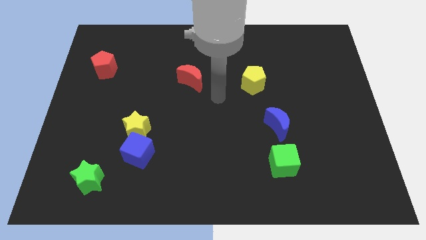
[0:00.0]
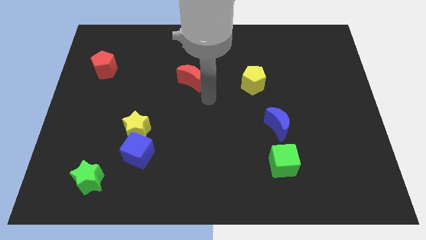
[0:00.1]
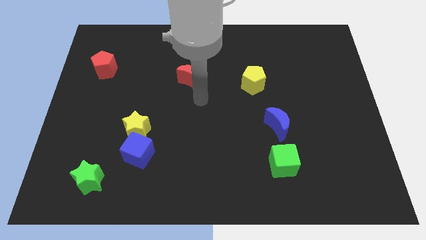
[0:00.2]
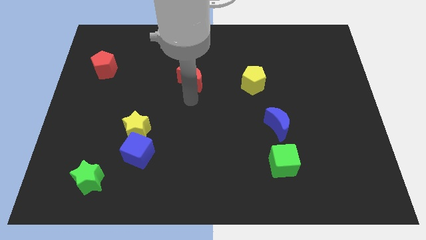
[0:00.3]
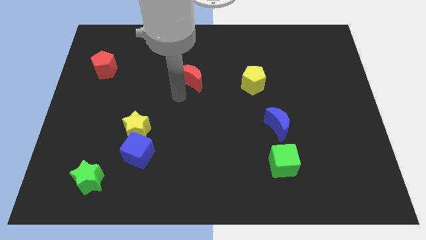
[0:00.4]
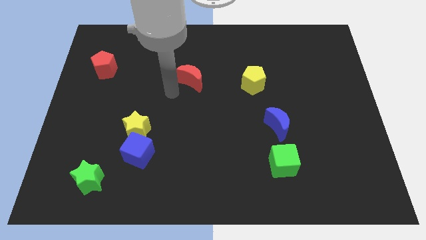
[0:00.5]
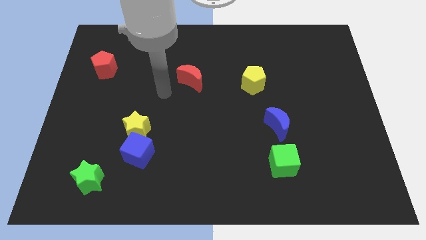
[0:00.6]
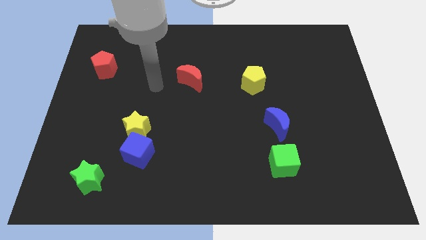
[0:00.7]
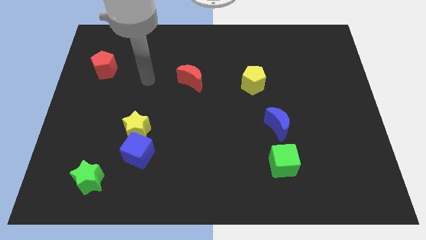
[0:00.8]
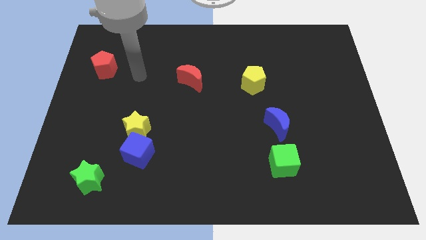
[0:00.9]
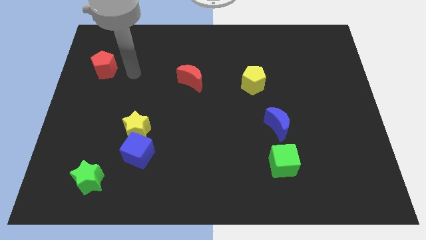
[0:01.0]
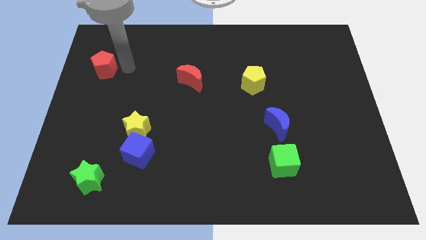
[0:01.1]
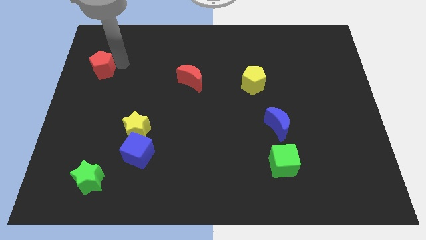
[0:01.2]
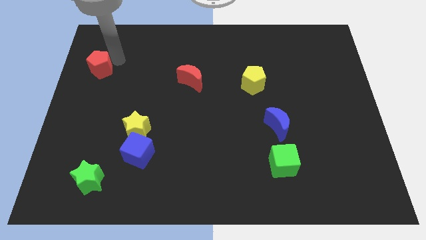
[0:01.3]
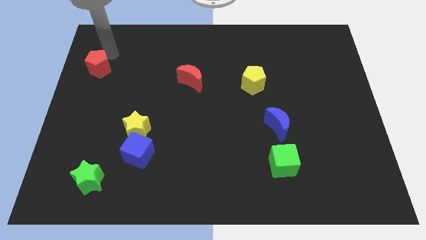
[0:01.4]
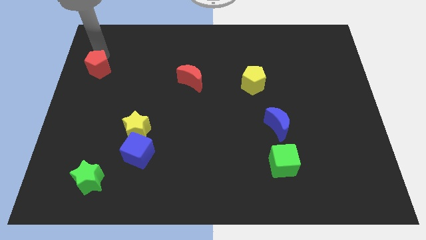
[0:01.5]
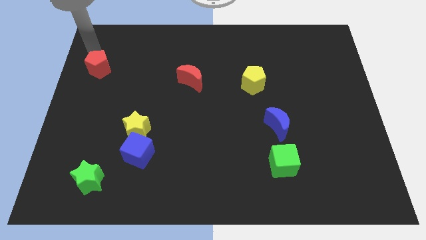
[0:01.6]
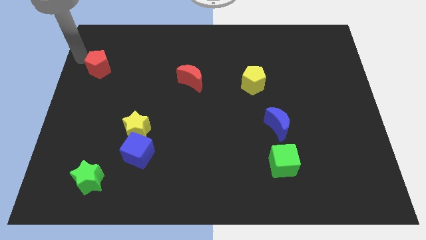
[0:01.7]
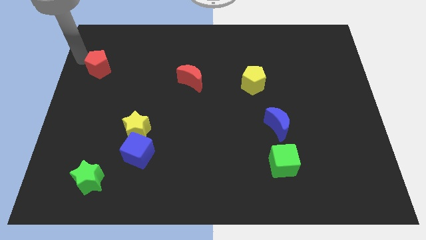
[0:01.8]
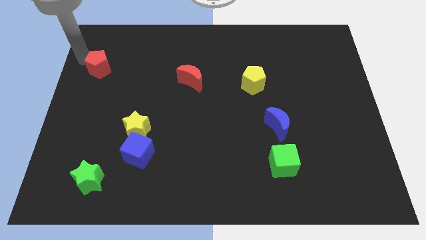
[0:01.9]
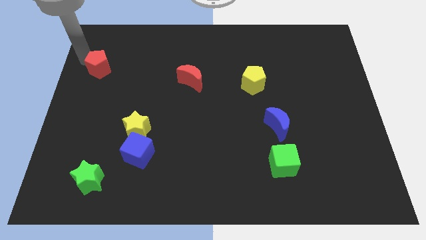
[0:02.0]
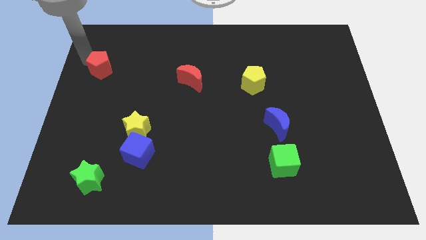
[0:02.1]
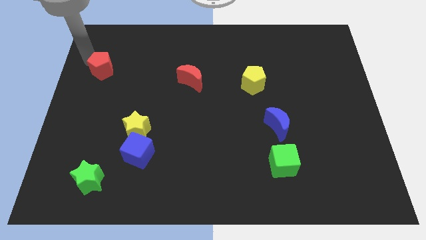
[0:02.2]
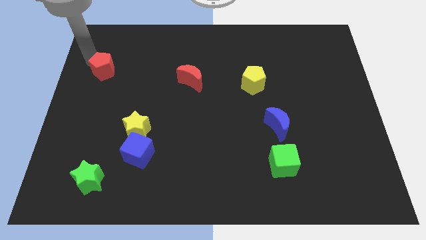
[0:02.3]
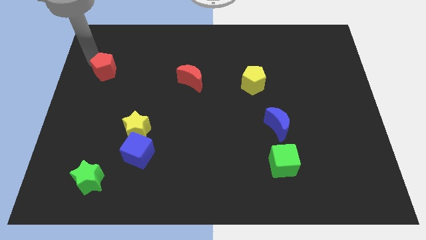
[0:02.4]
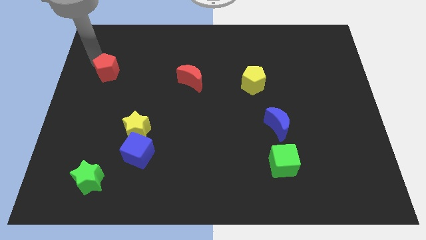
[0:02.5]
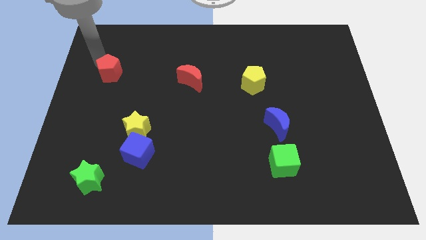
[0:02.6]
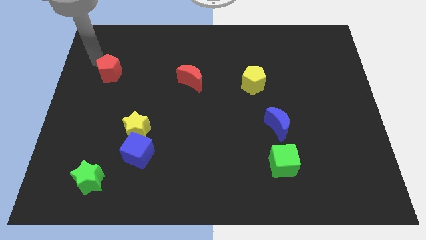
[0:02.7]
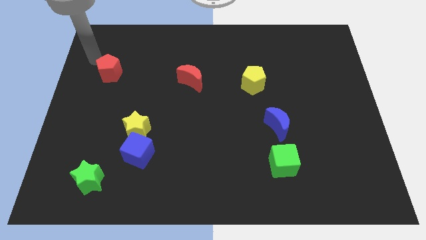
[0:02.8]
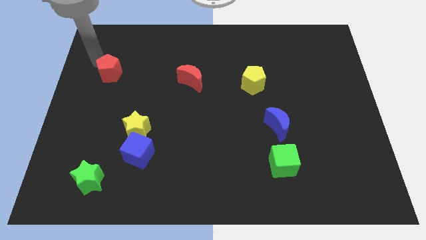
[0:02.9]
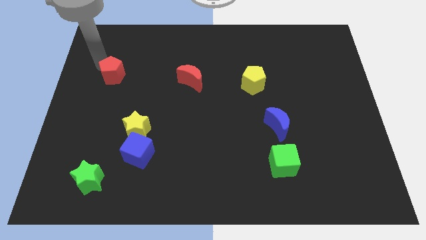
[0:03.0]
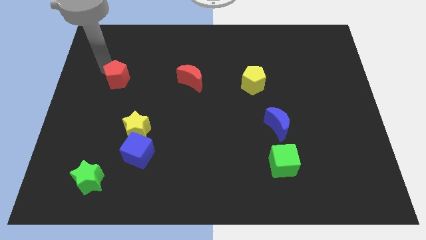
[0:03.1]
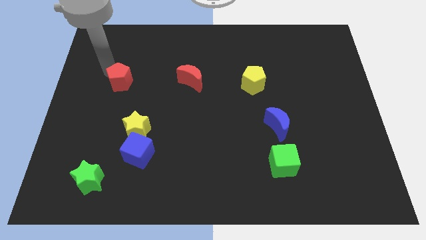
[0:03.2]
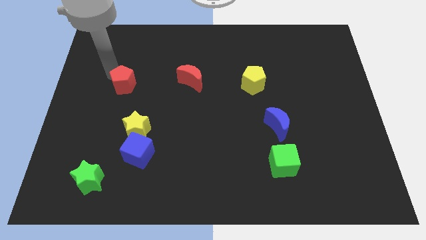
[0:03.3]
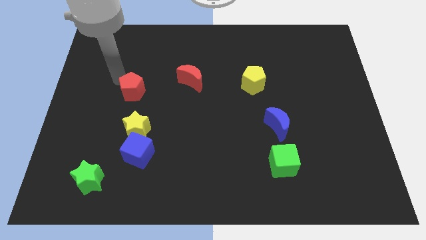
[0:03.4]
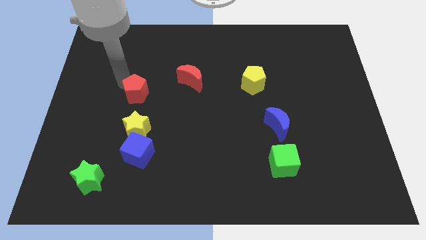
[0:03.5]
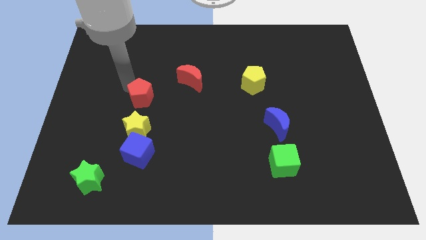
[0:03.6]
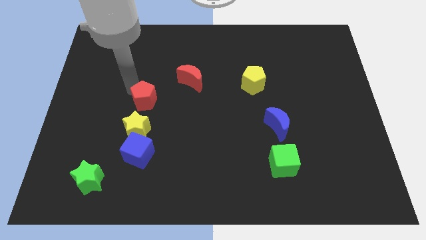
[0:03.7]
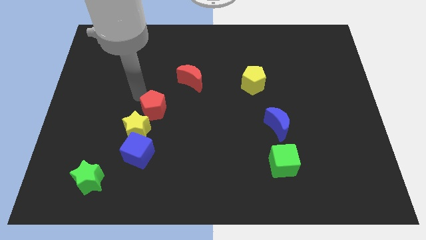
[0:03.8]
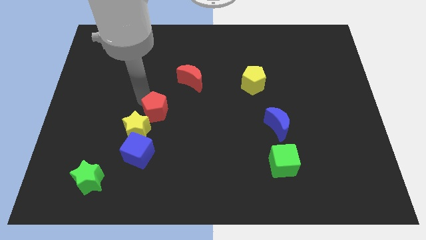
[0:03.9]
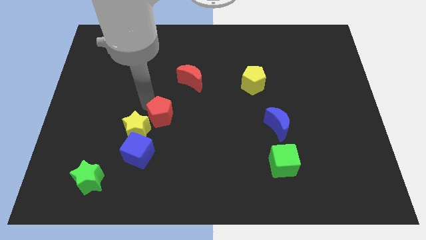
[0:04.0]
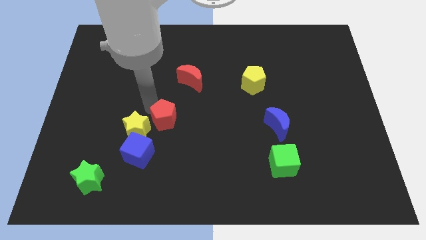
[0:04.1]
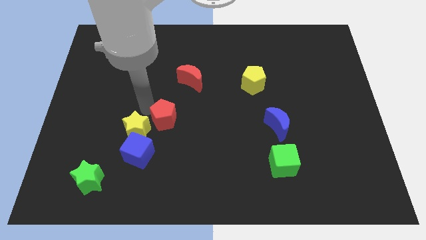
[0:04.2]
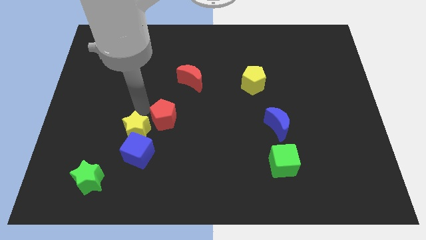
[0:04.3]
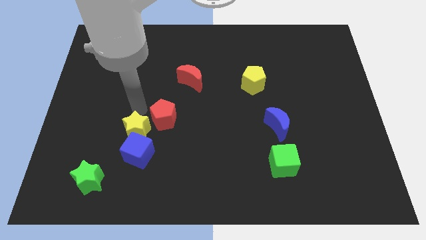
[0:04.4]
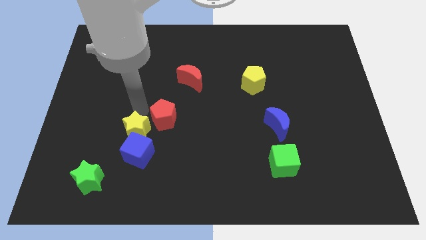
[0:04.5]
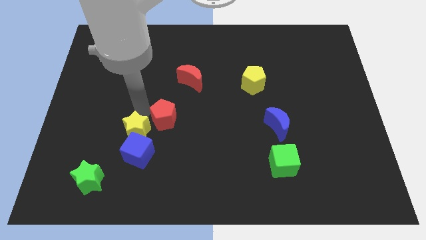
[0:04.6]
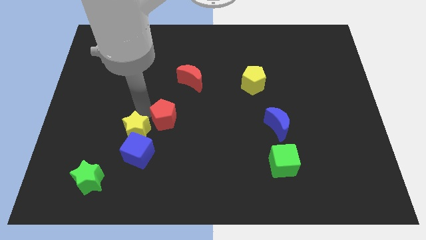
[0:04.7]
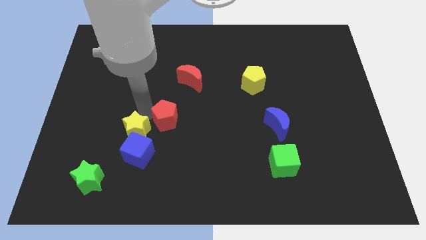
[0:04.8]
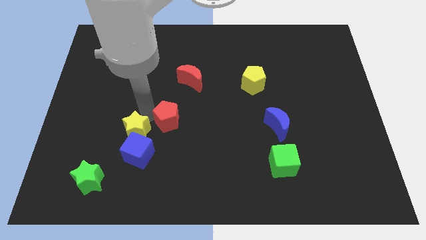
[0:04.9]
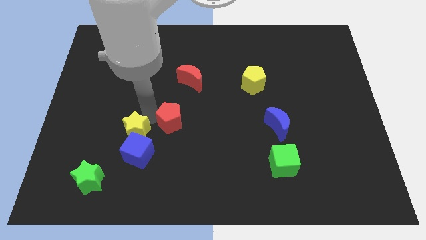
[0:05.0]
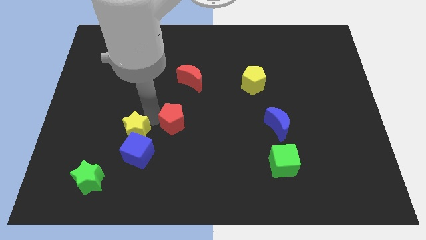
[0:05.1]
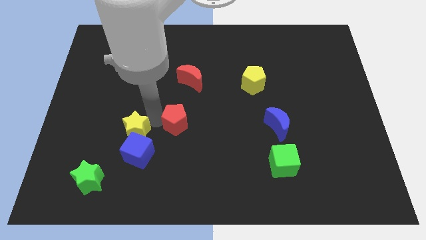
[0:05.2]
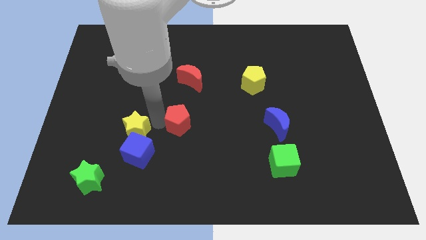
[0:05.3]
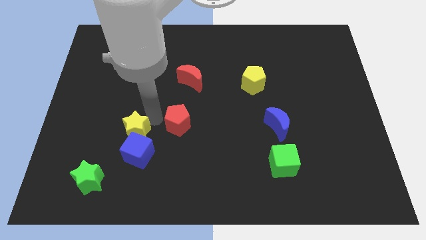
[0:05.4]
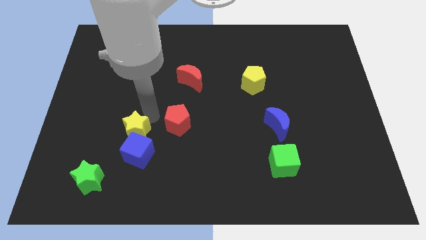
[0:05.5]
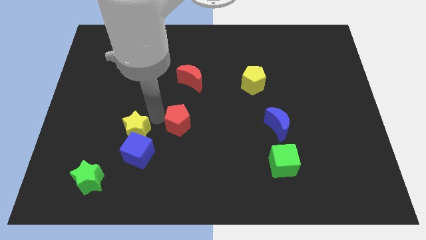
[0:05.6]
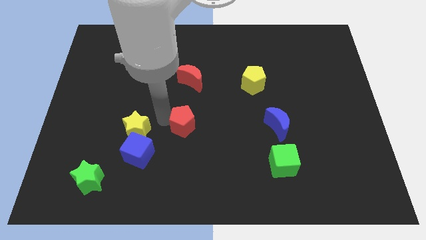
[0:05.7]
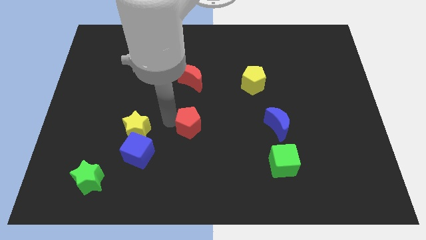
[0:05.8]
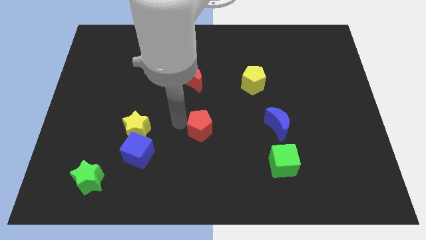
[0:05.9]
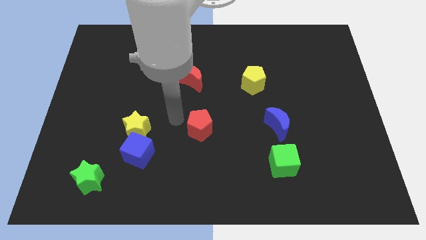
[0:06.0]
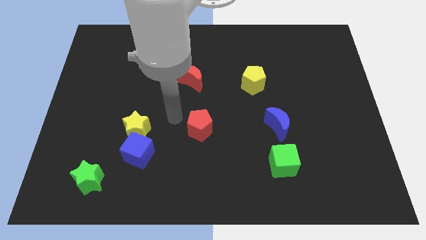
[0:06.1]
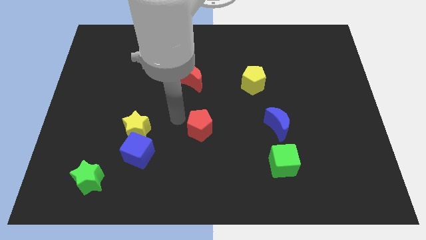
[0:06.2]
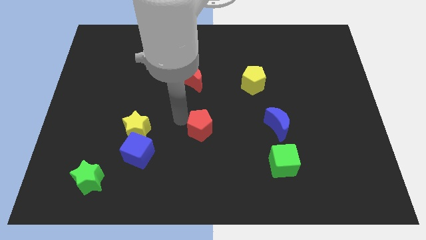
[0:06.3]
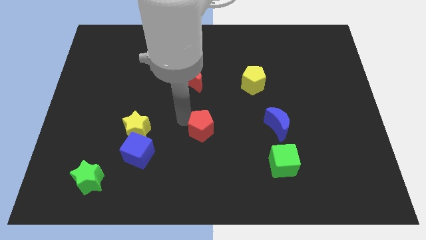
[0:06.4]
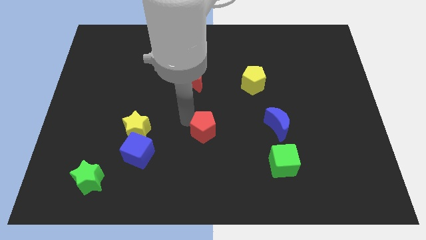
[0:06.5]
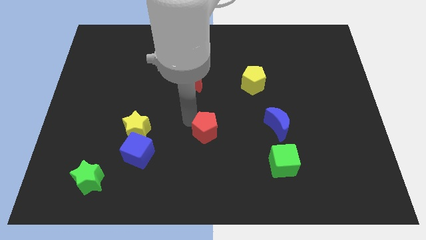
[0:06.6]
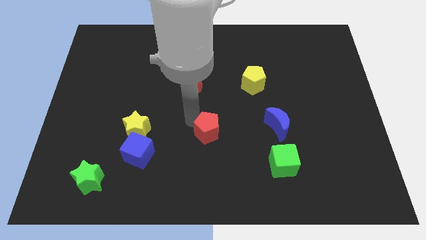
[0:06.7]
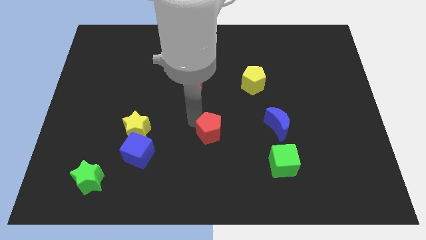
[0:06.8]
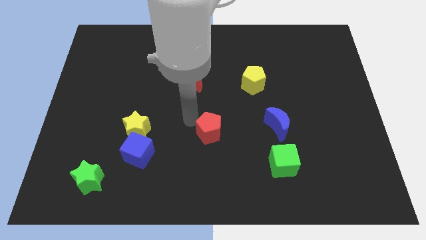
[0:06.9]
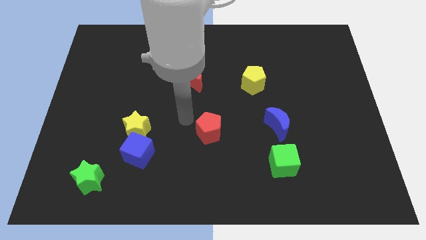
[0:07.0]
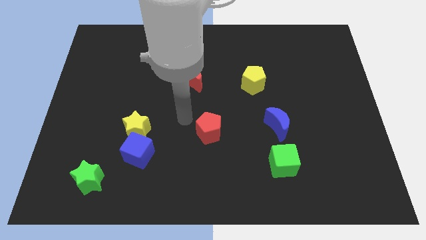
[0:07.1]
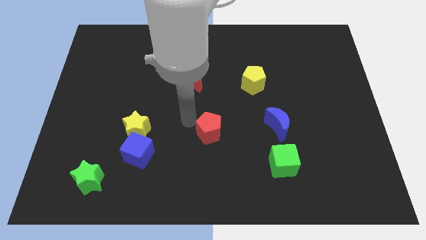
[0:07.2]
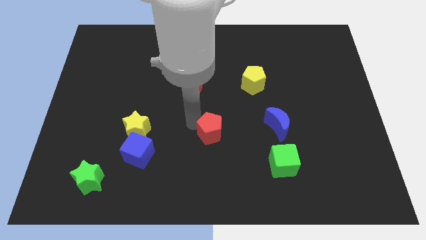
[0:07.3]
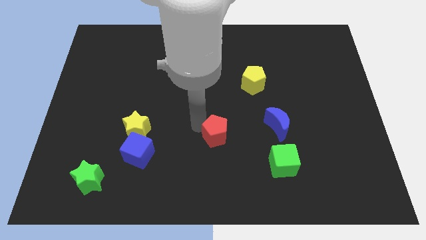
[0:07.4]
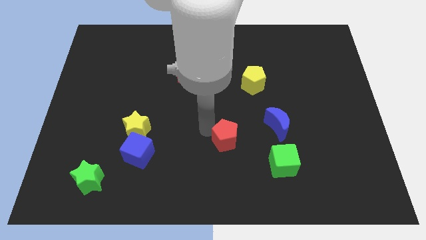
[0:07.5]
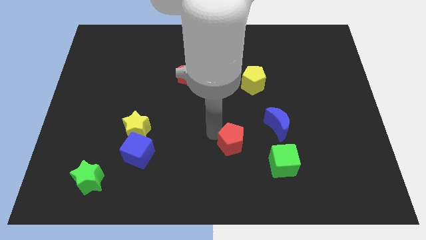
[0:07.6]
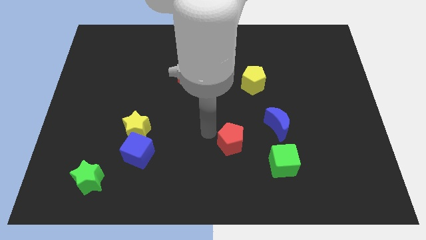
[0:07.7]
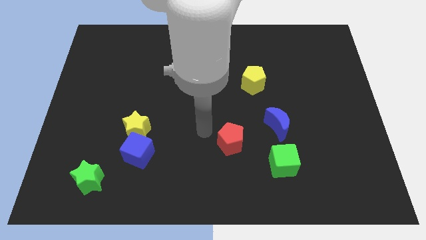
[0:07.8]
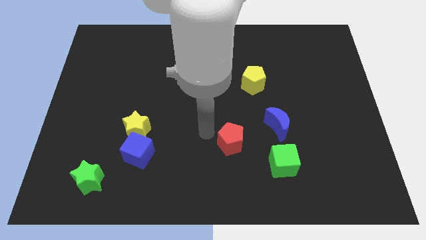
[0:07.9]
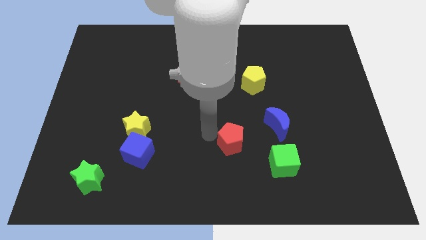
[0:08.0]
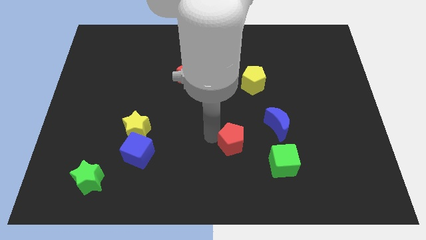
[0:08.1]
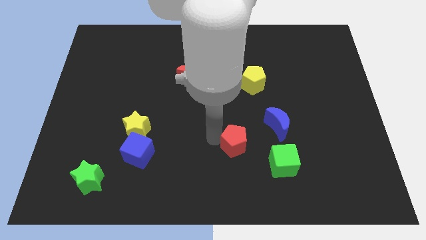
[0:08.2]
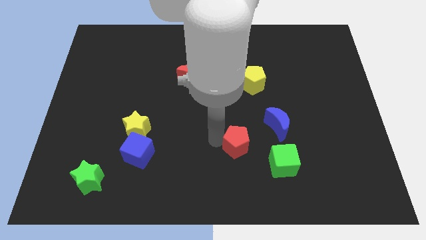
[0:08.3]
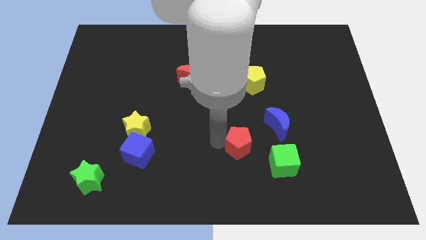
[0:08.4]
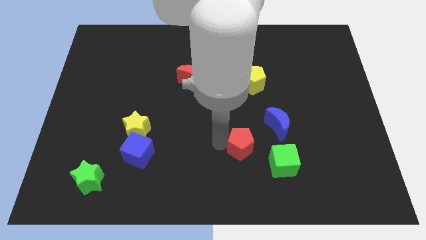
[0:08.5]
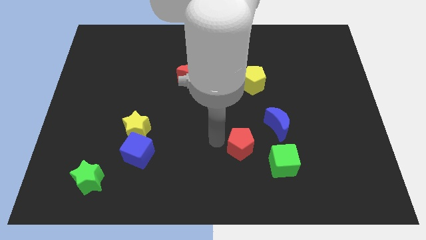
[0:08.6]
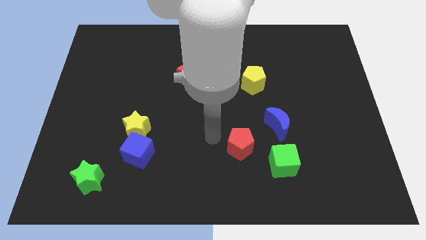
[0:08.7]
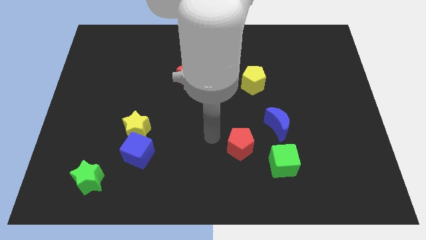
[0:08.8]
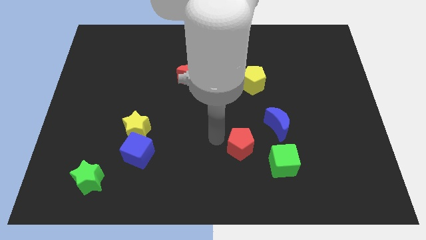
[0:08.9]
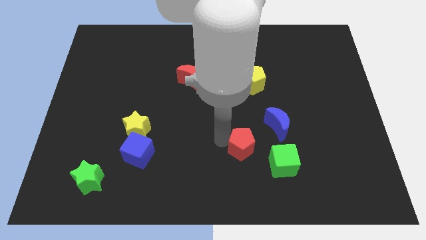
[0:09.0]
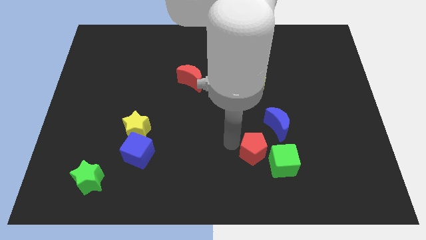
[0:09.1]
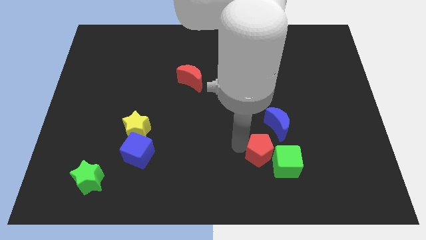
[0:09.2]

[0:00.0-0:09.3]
put the red pentagon next to the green cube
